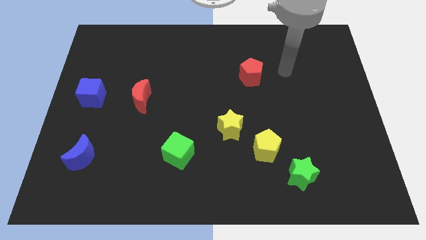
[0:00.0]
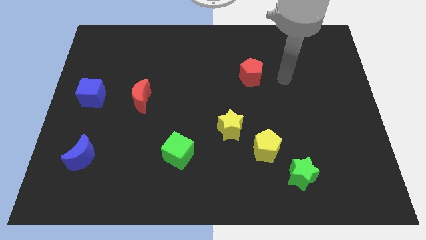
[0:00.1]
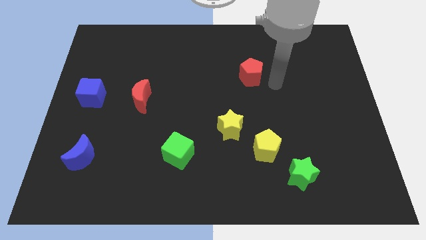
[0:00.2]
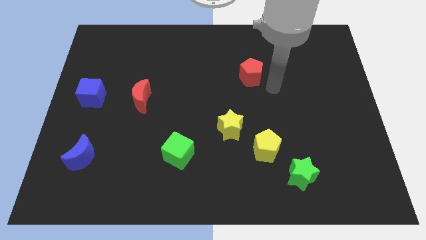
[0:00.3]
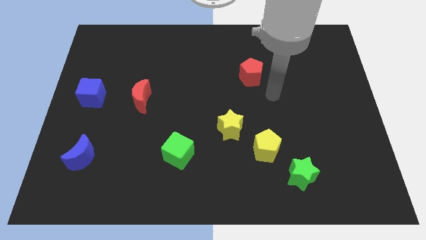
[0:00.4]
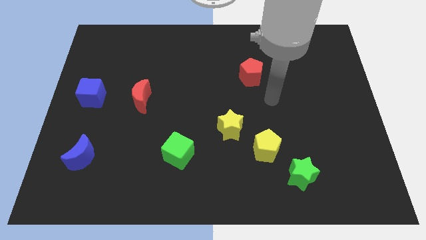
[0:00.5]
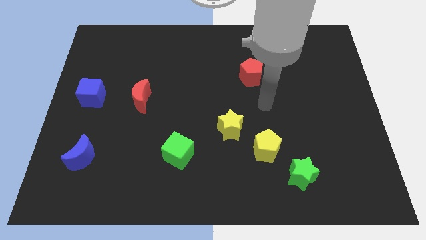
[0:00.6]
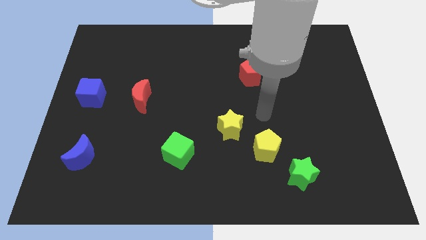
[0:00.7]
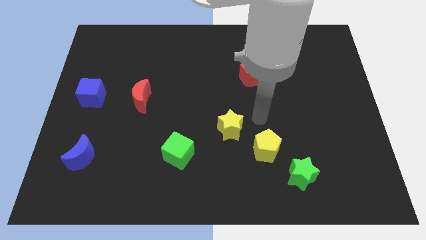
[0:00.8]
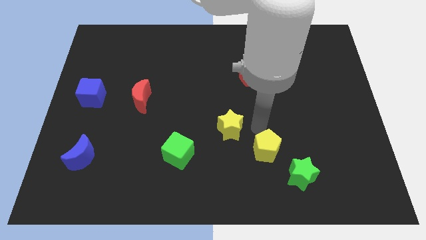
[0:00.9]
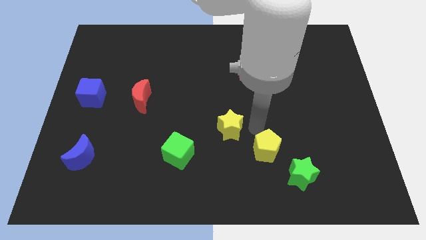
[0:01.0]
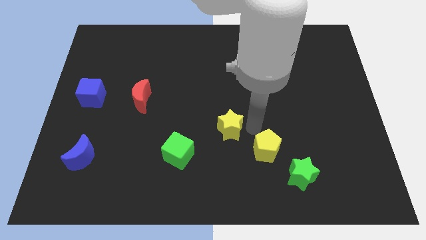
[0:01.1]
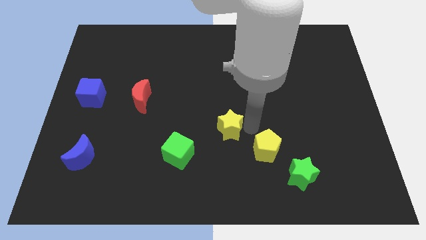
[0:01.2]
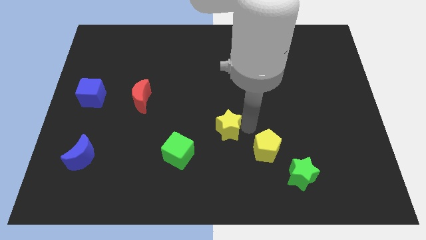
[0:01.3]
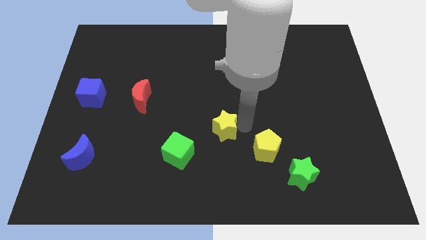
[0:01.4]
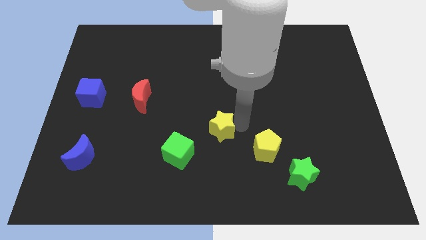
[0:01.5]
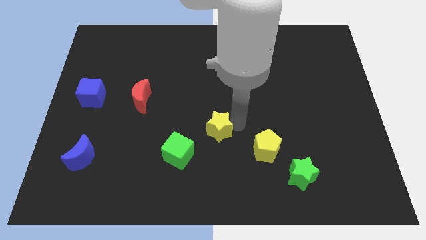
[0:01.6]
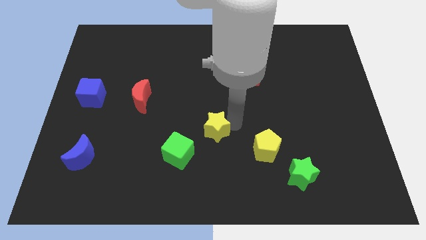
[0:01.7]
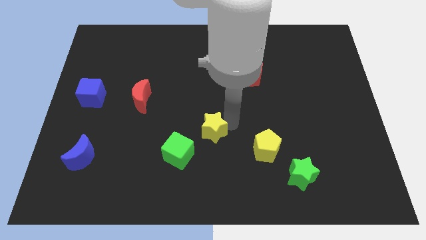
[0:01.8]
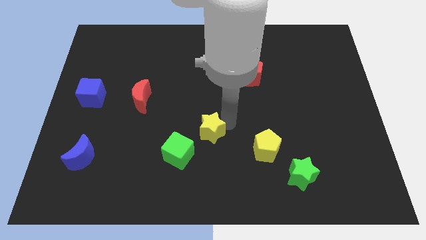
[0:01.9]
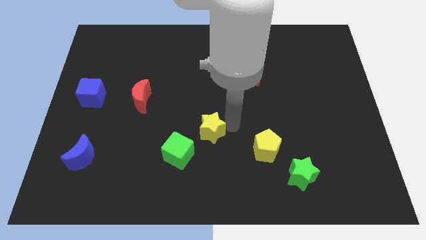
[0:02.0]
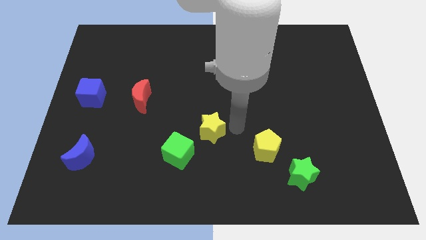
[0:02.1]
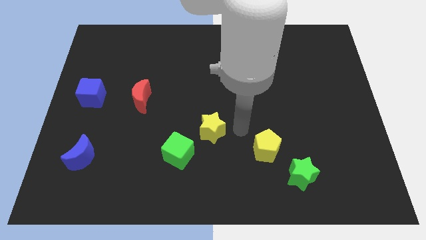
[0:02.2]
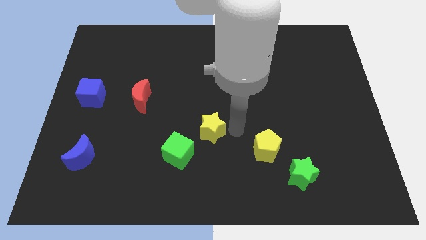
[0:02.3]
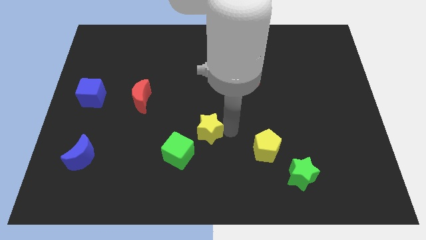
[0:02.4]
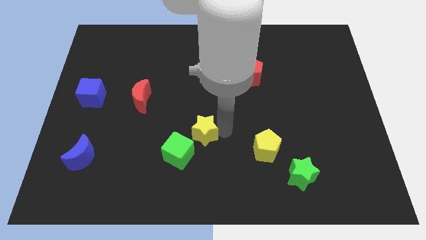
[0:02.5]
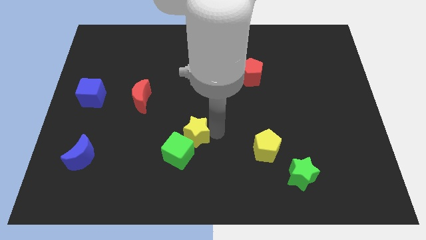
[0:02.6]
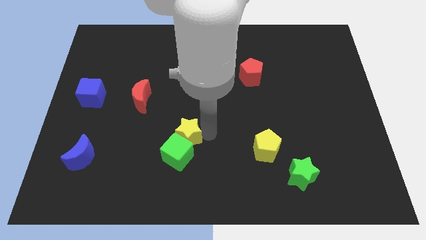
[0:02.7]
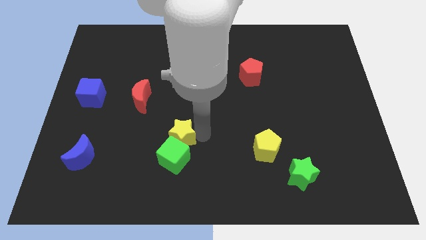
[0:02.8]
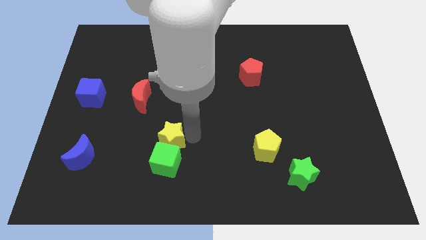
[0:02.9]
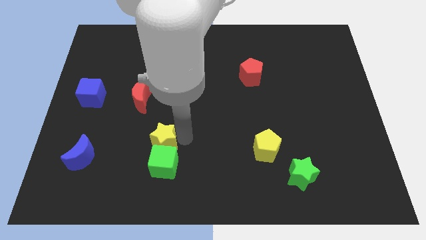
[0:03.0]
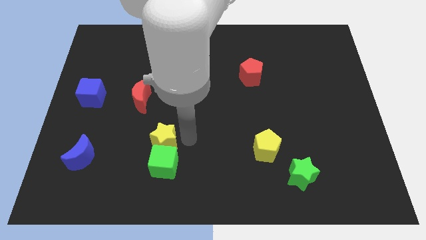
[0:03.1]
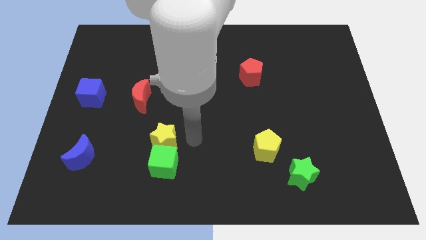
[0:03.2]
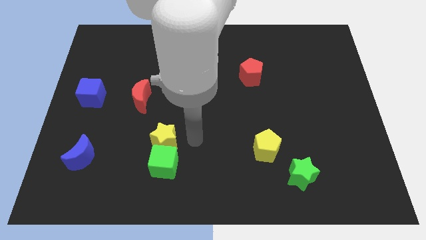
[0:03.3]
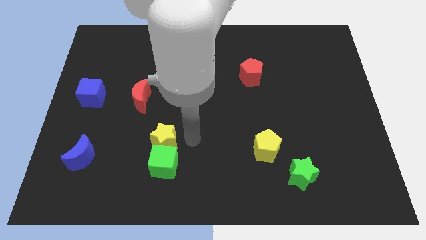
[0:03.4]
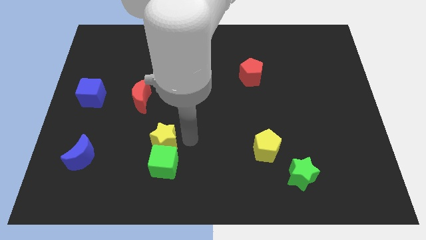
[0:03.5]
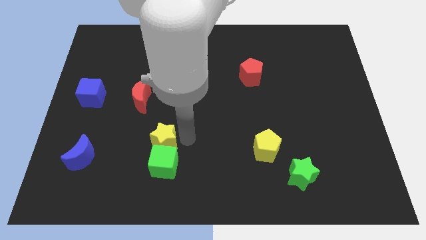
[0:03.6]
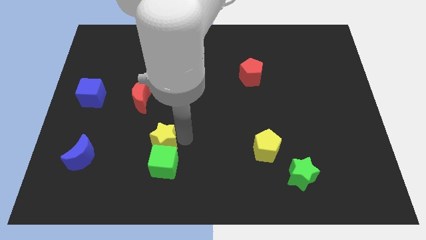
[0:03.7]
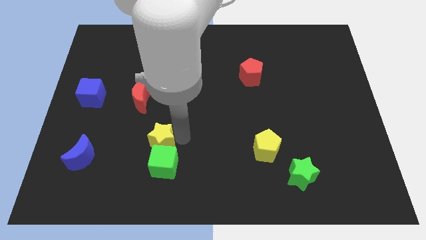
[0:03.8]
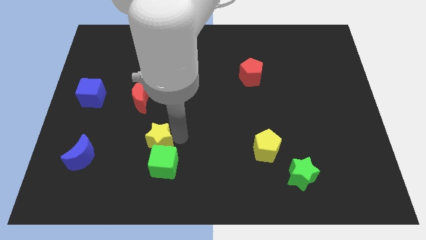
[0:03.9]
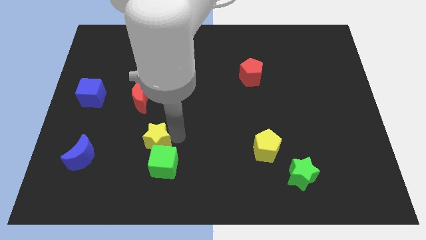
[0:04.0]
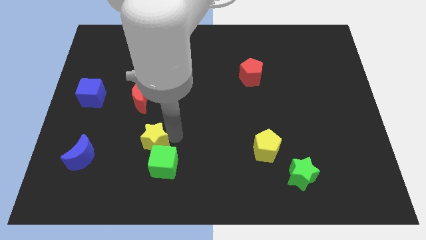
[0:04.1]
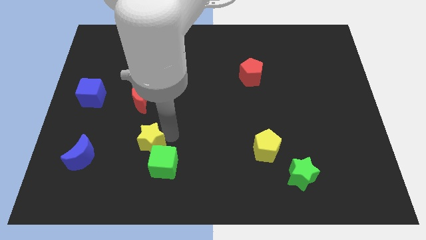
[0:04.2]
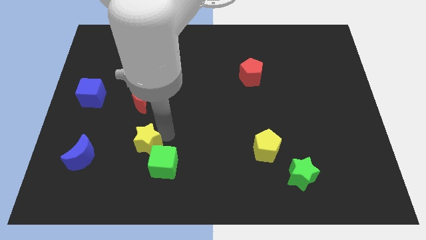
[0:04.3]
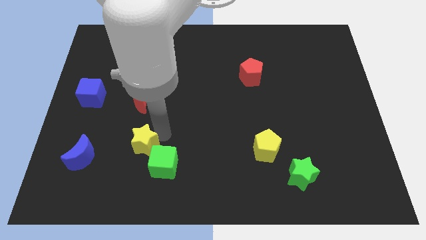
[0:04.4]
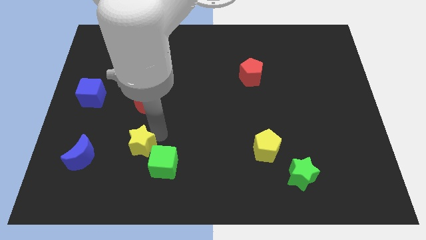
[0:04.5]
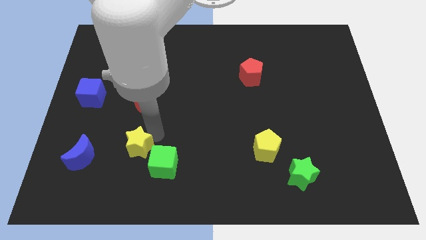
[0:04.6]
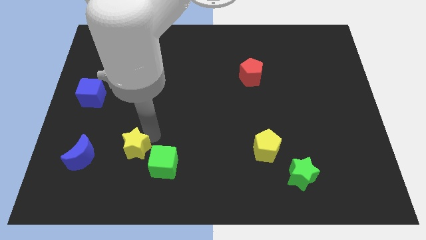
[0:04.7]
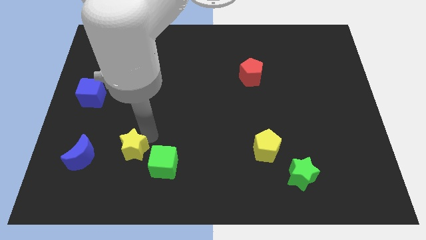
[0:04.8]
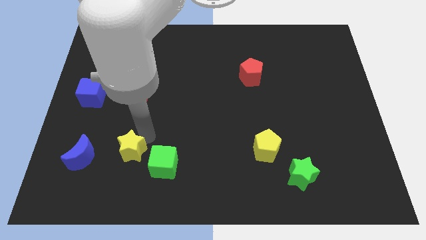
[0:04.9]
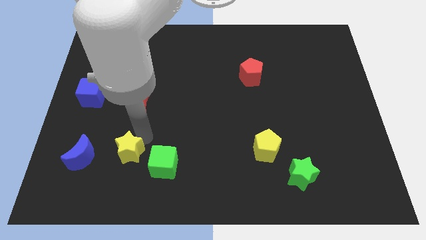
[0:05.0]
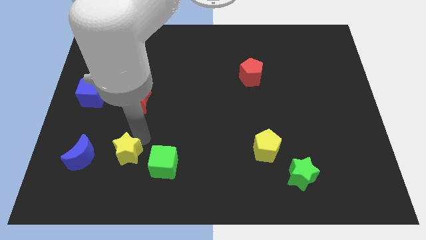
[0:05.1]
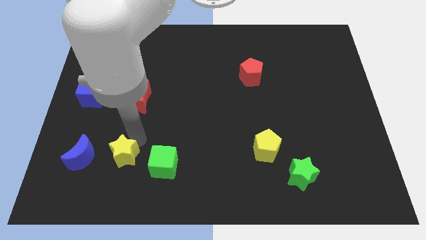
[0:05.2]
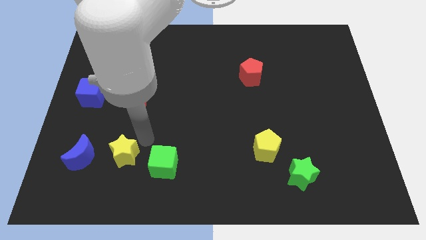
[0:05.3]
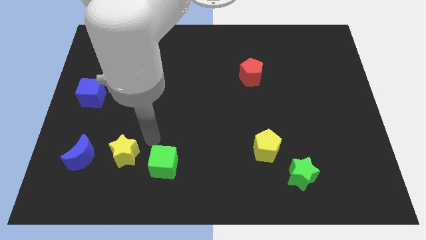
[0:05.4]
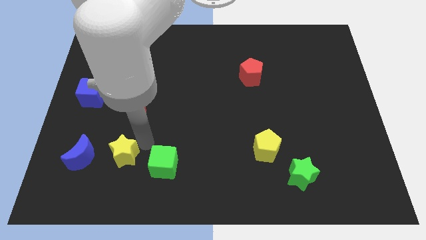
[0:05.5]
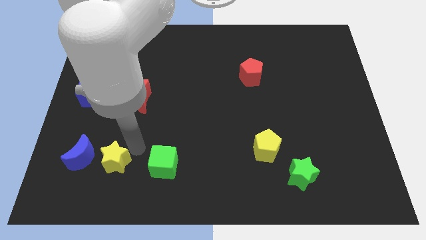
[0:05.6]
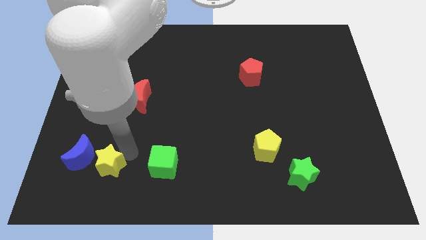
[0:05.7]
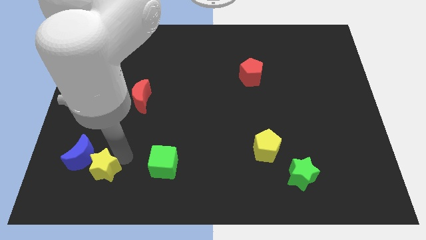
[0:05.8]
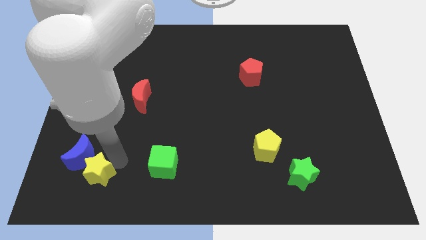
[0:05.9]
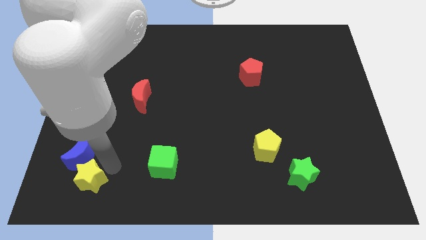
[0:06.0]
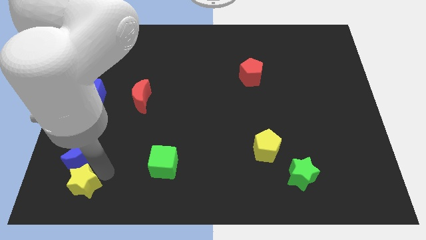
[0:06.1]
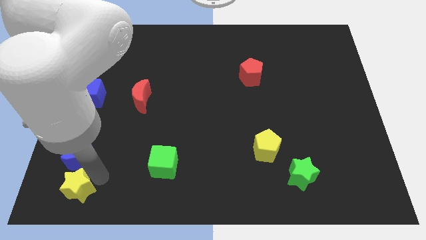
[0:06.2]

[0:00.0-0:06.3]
push the yellow star to the bottom left of the board
